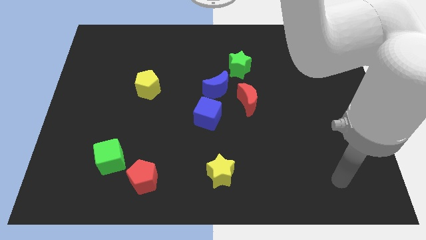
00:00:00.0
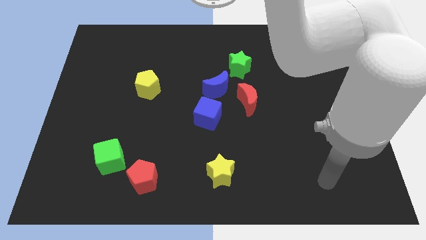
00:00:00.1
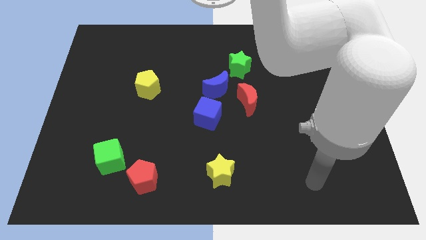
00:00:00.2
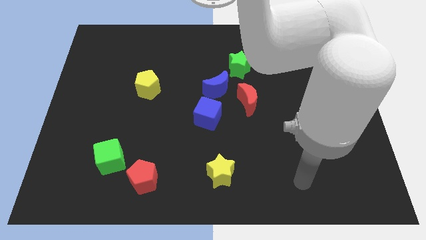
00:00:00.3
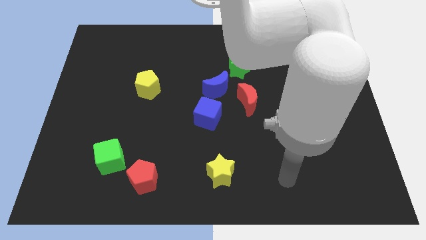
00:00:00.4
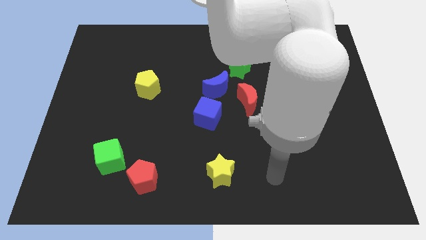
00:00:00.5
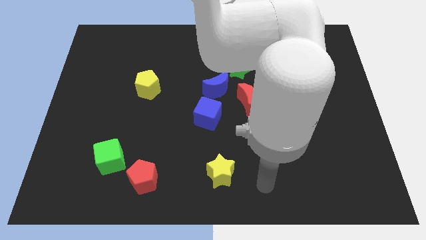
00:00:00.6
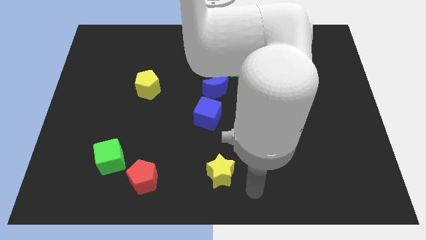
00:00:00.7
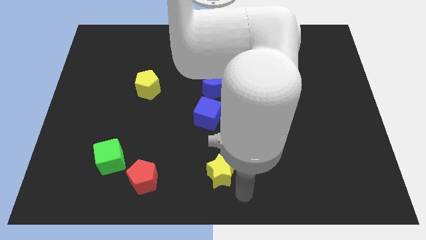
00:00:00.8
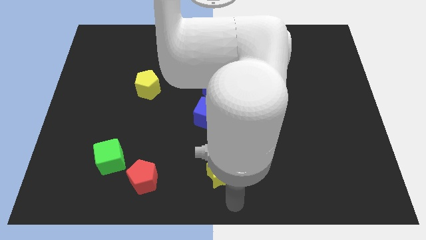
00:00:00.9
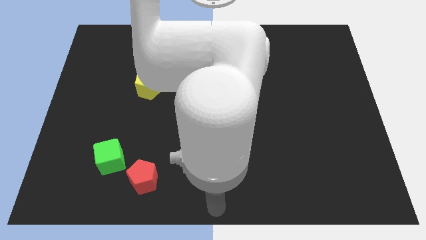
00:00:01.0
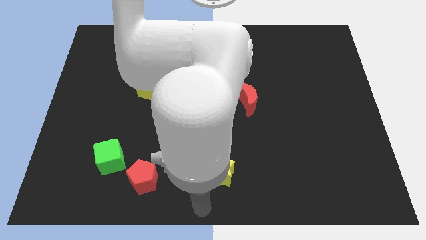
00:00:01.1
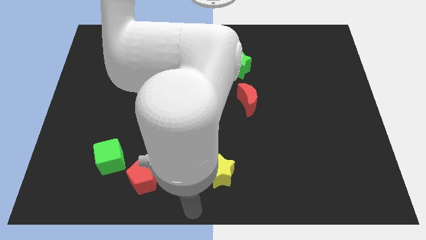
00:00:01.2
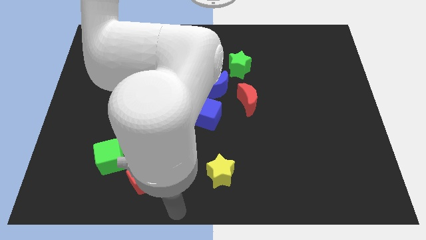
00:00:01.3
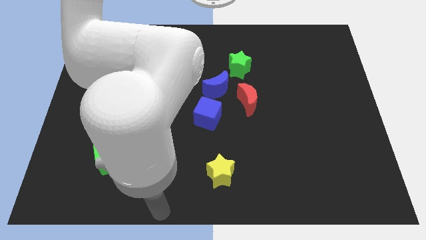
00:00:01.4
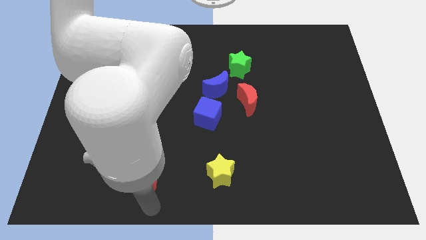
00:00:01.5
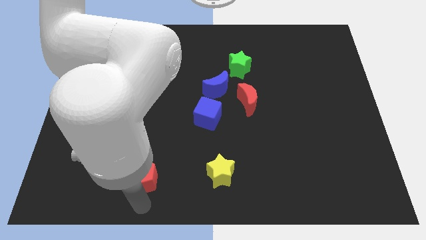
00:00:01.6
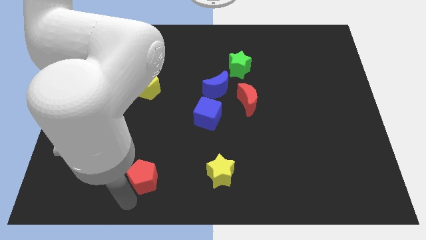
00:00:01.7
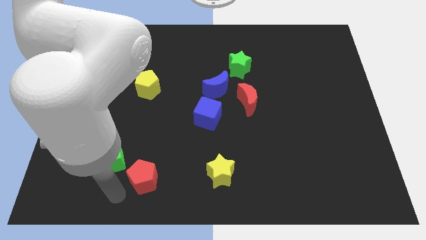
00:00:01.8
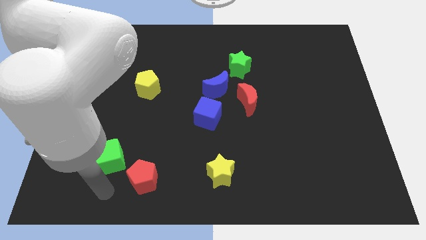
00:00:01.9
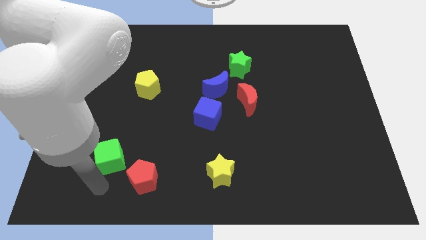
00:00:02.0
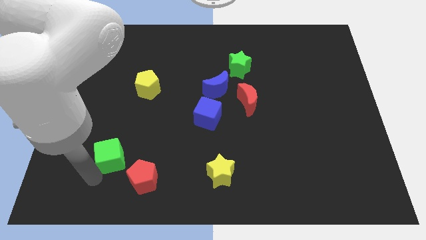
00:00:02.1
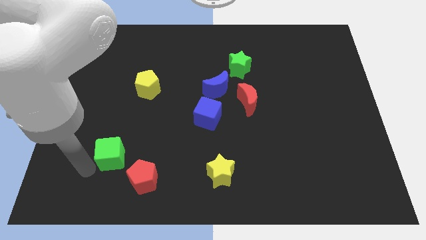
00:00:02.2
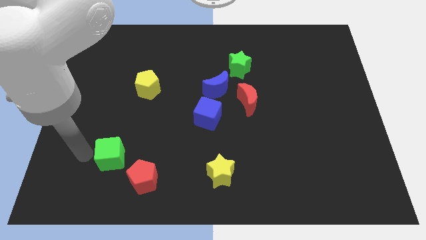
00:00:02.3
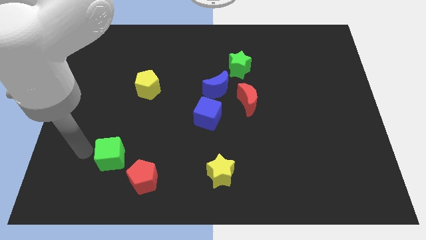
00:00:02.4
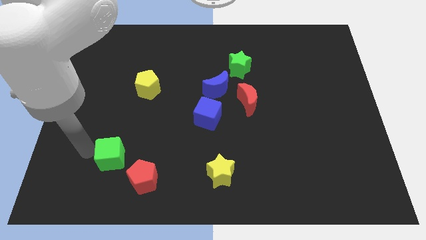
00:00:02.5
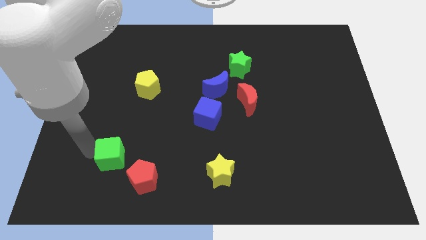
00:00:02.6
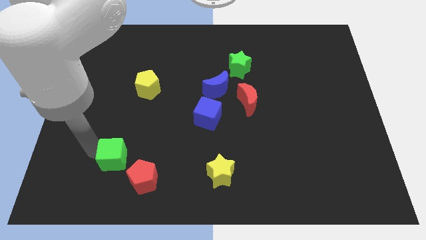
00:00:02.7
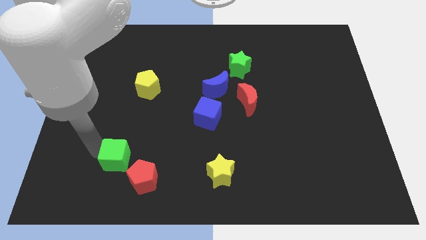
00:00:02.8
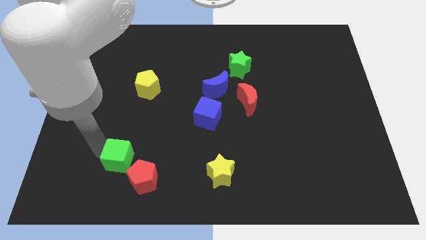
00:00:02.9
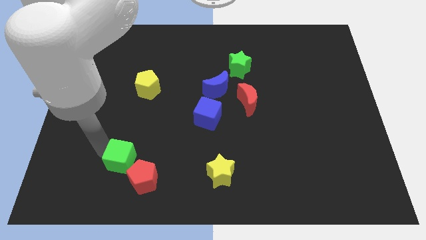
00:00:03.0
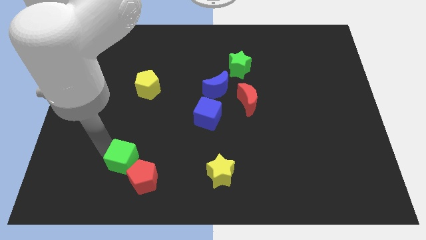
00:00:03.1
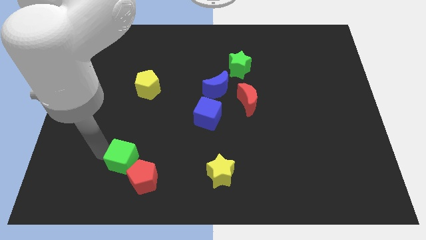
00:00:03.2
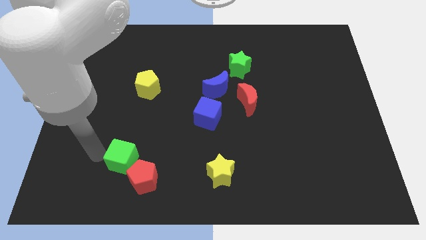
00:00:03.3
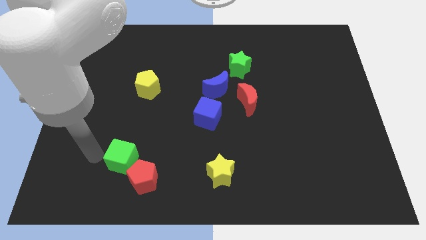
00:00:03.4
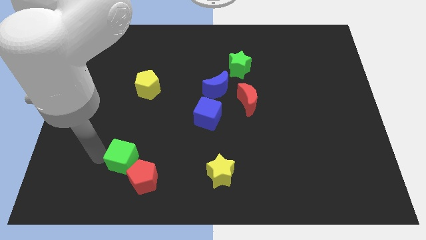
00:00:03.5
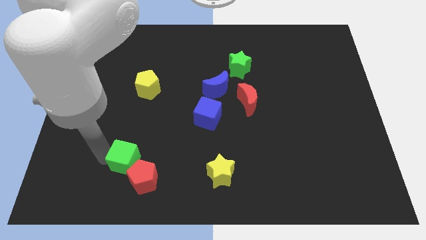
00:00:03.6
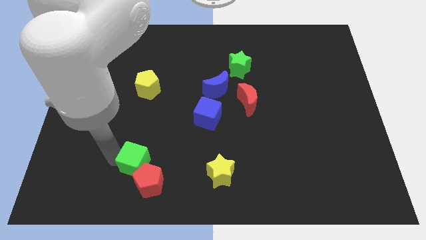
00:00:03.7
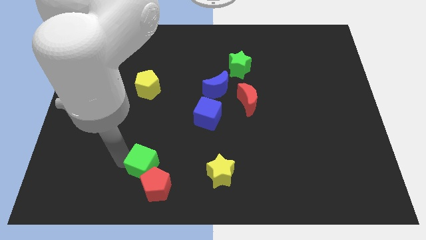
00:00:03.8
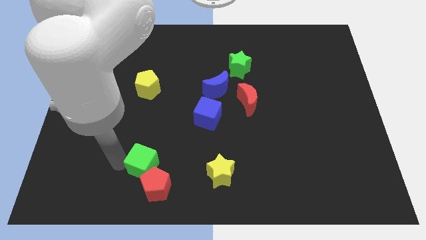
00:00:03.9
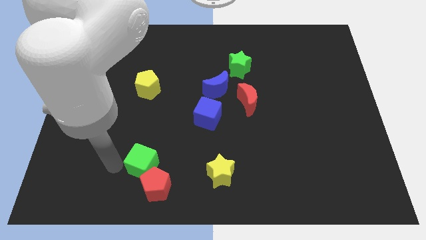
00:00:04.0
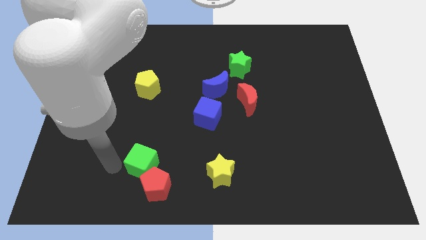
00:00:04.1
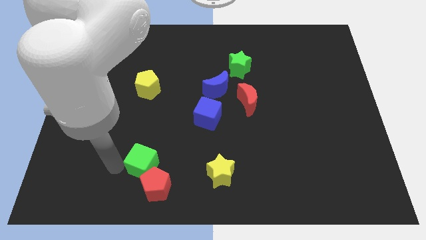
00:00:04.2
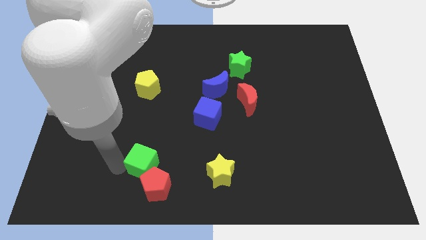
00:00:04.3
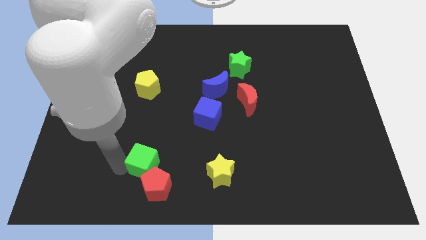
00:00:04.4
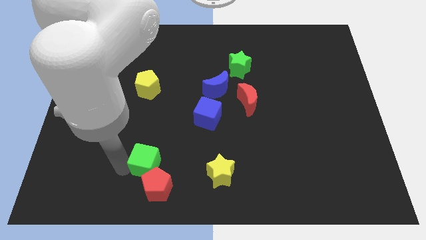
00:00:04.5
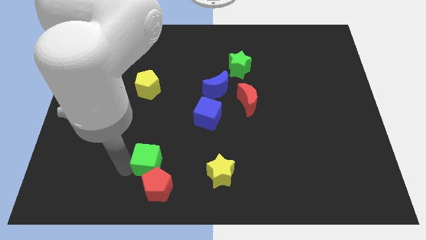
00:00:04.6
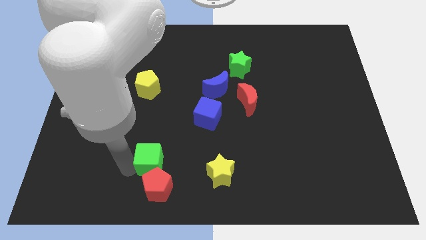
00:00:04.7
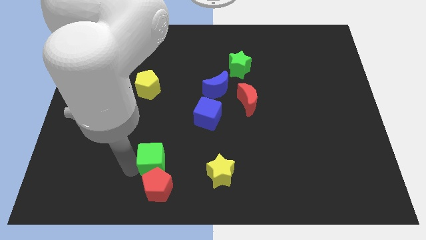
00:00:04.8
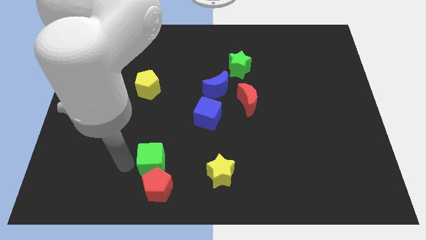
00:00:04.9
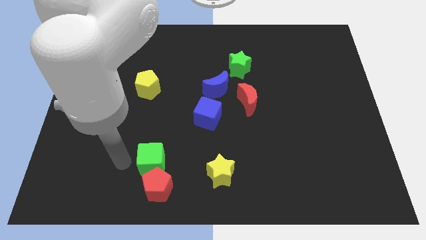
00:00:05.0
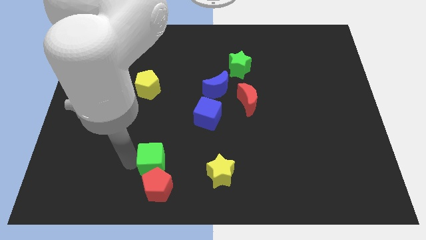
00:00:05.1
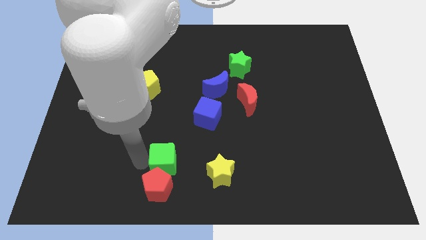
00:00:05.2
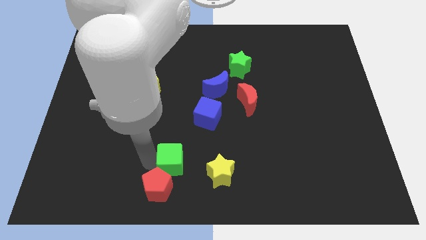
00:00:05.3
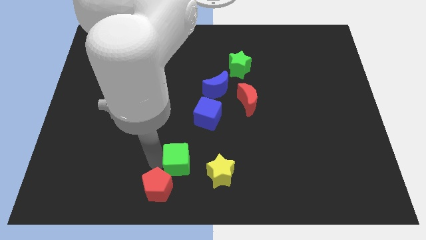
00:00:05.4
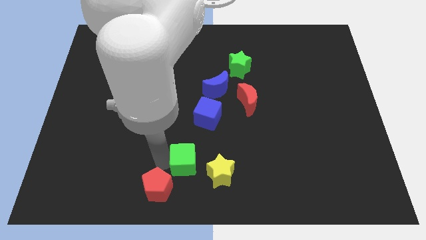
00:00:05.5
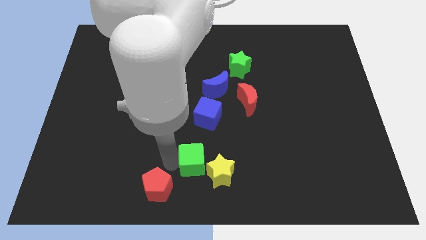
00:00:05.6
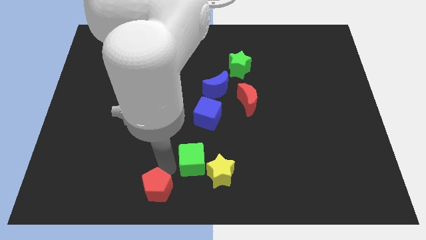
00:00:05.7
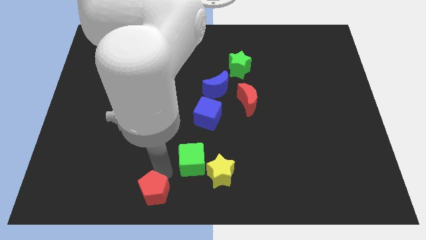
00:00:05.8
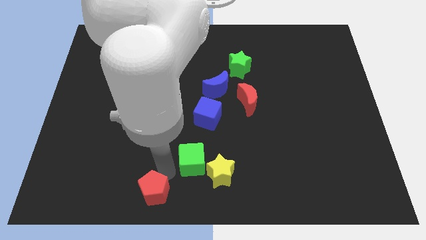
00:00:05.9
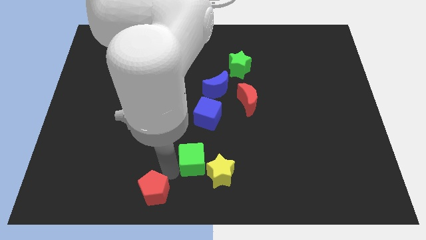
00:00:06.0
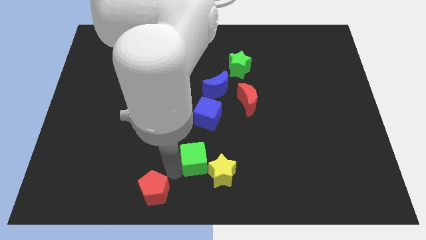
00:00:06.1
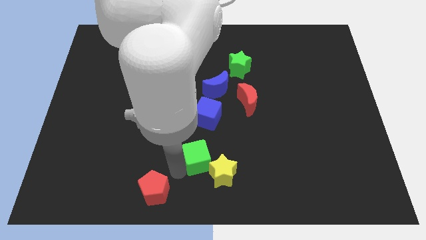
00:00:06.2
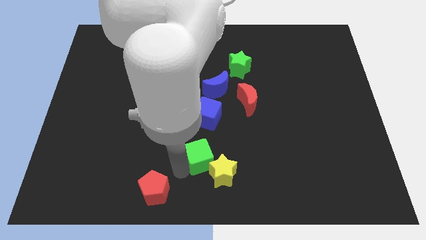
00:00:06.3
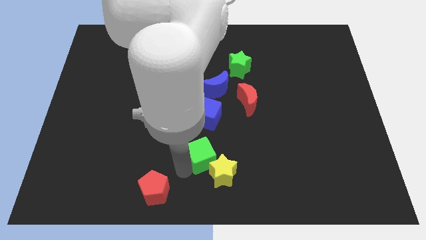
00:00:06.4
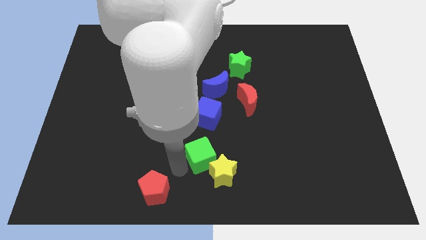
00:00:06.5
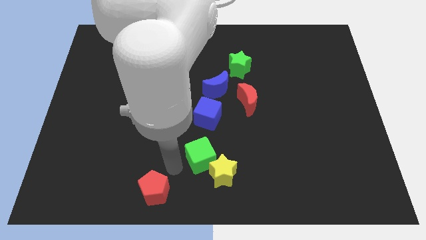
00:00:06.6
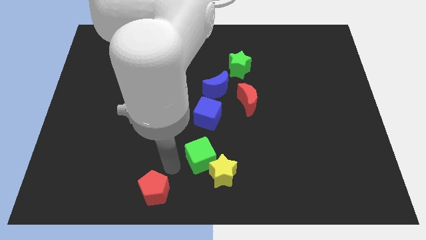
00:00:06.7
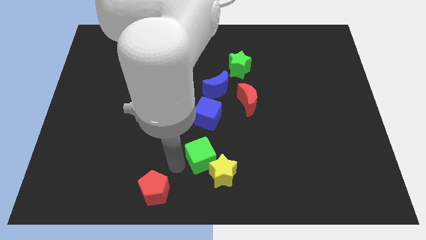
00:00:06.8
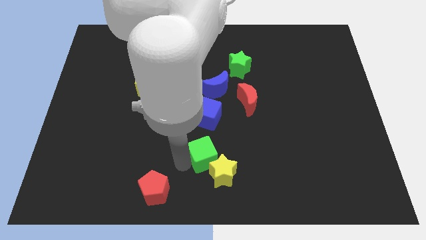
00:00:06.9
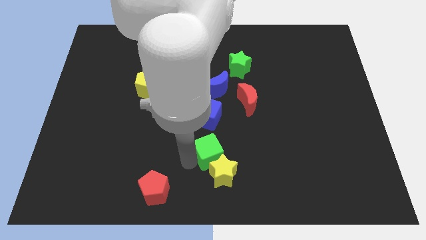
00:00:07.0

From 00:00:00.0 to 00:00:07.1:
slide the green cube to the right

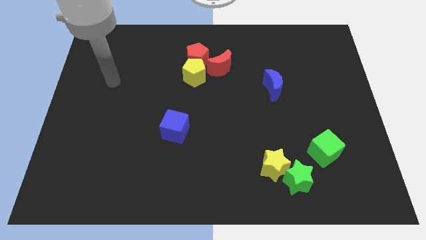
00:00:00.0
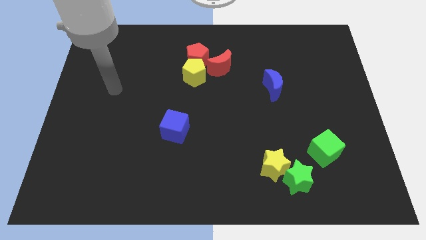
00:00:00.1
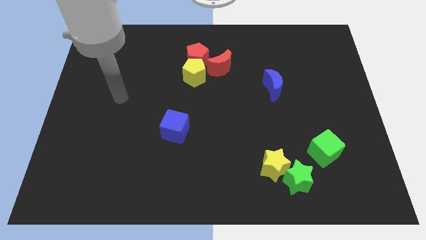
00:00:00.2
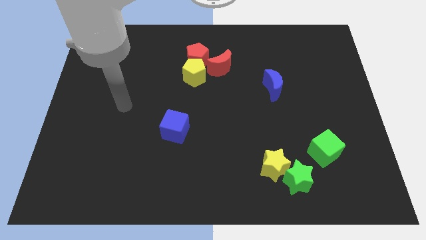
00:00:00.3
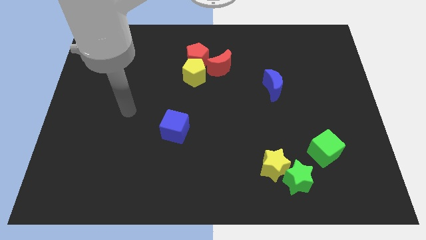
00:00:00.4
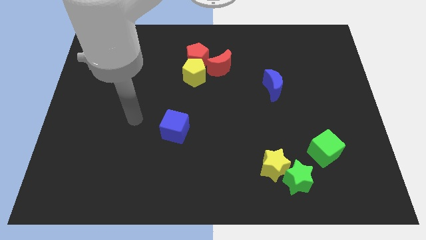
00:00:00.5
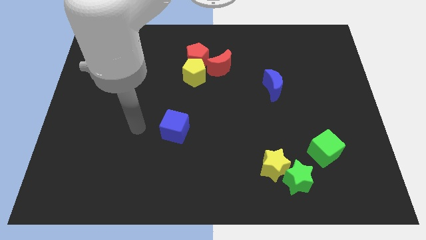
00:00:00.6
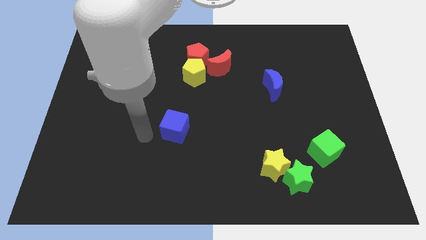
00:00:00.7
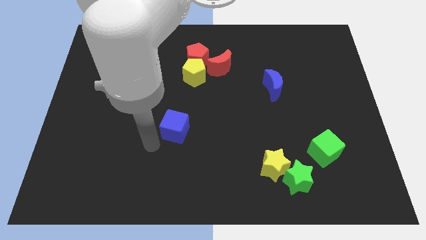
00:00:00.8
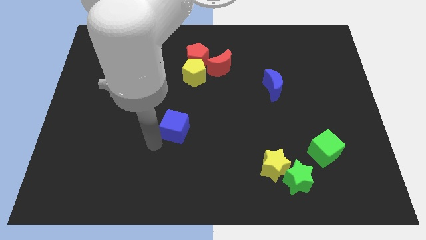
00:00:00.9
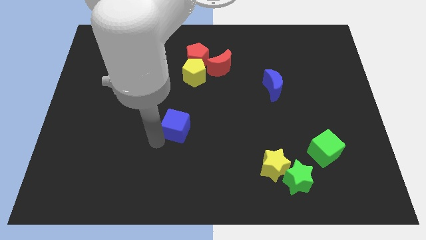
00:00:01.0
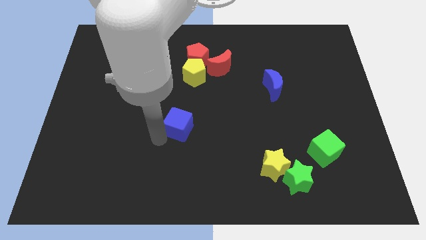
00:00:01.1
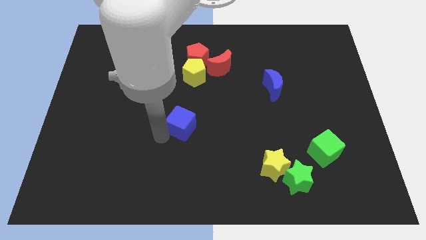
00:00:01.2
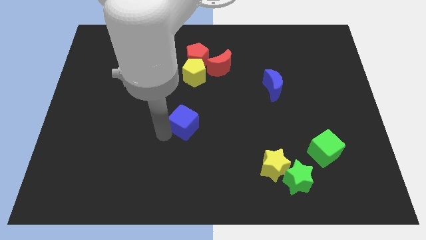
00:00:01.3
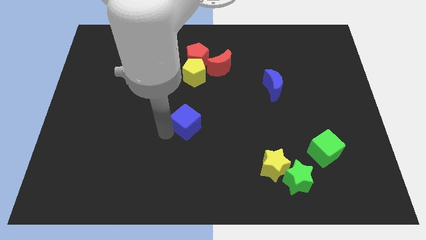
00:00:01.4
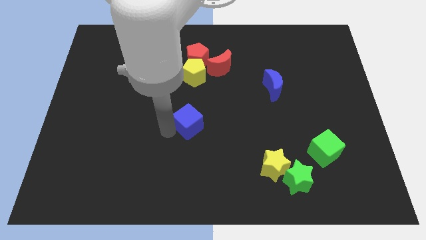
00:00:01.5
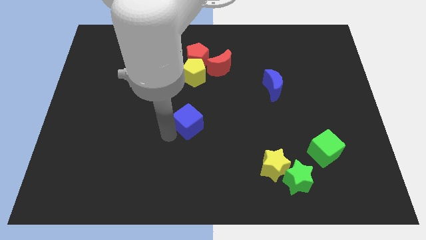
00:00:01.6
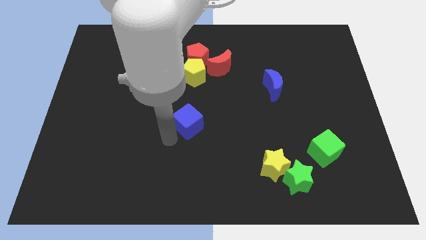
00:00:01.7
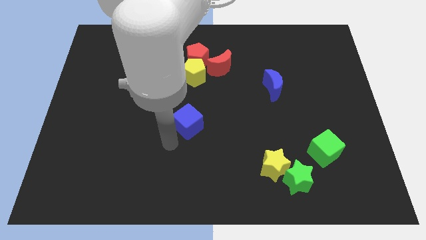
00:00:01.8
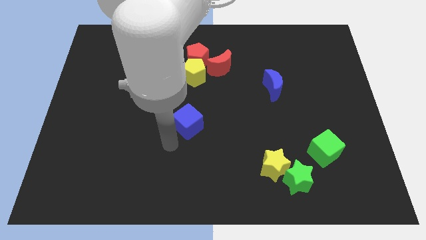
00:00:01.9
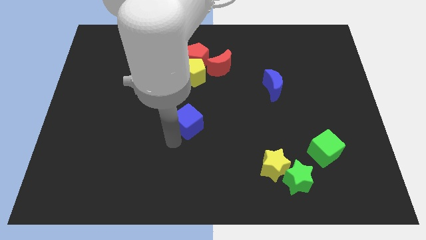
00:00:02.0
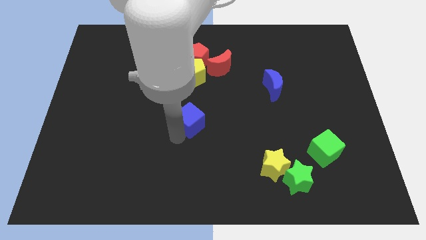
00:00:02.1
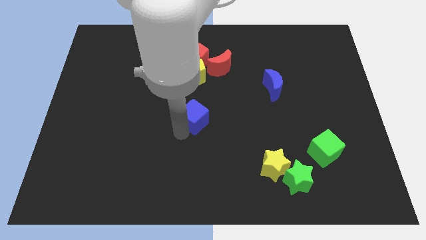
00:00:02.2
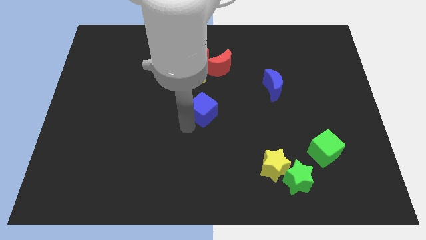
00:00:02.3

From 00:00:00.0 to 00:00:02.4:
push the blue cube up and to the right diagonally a bit
